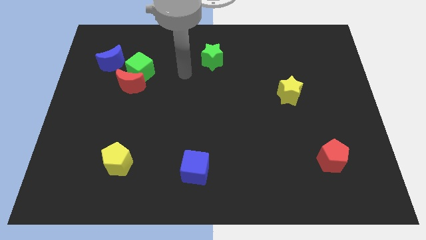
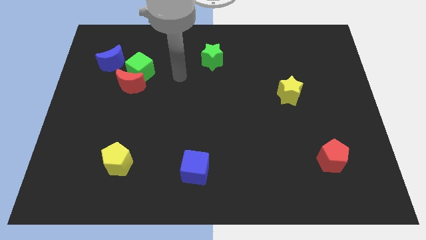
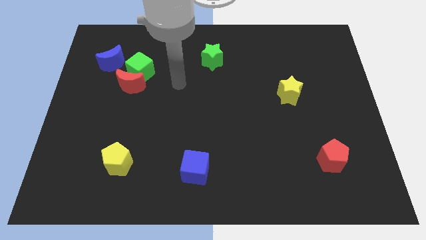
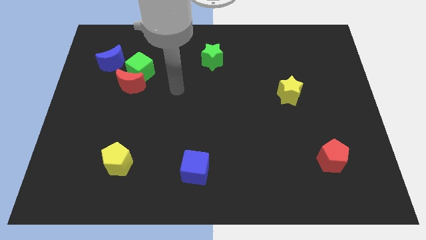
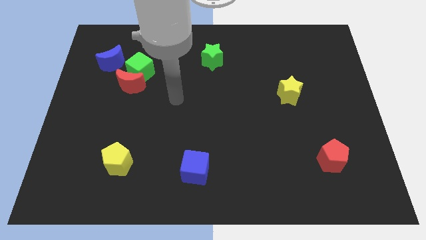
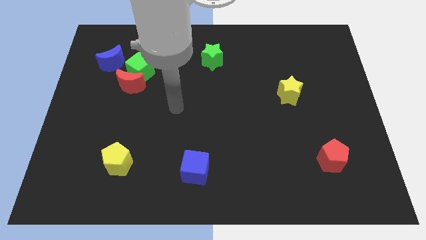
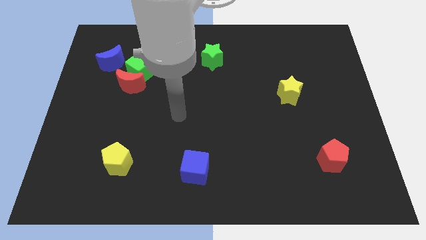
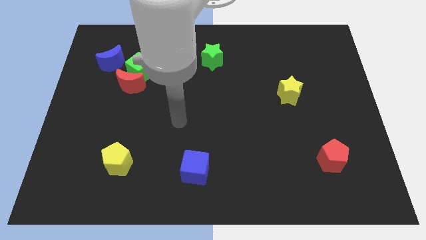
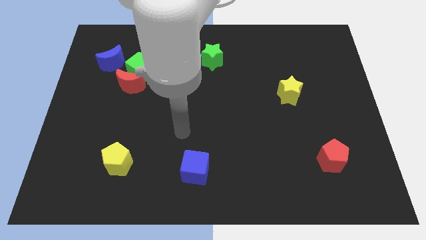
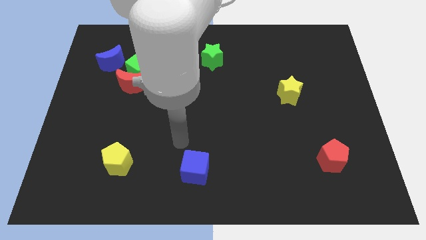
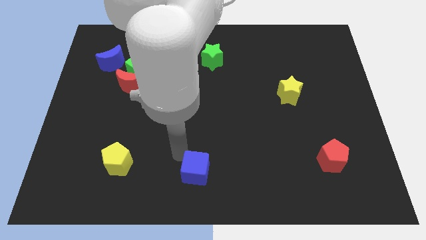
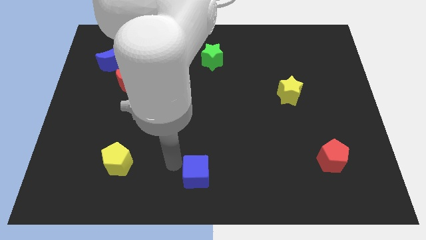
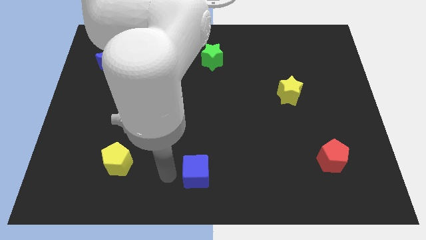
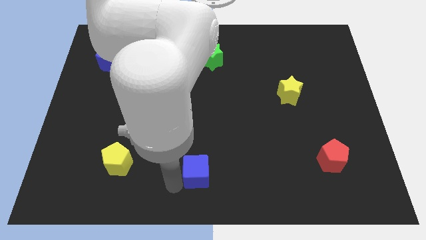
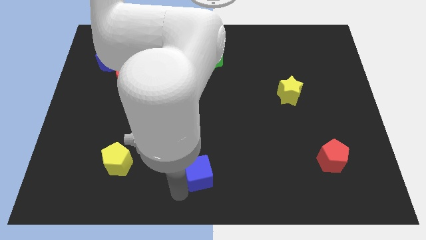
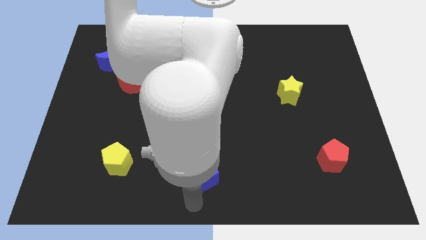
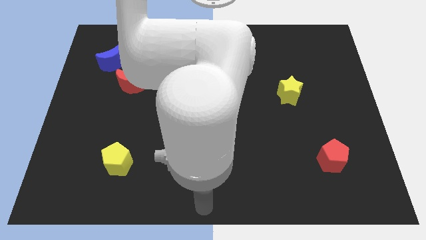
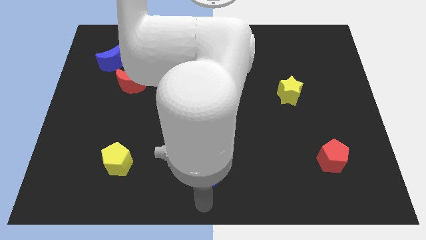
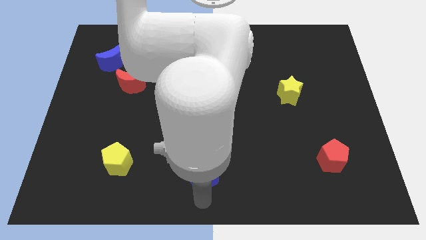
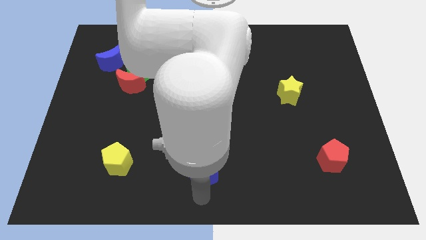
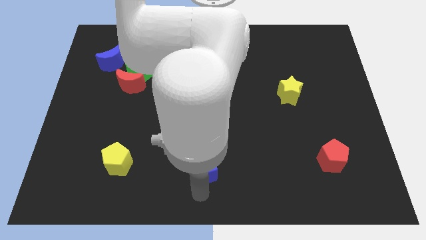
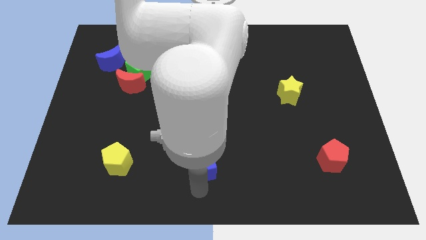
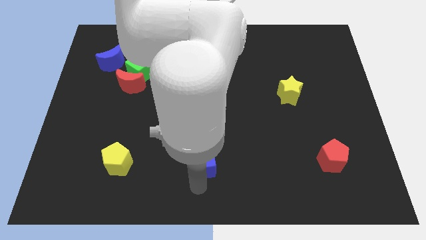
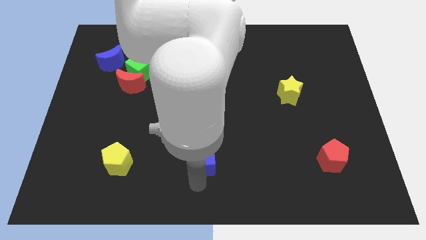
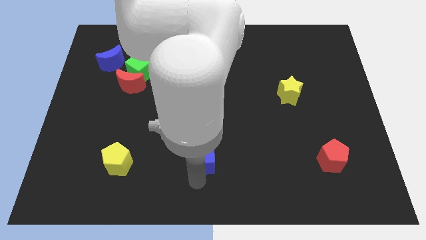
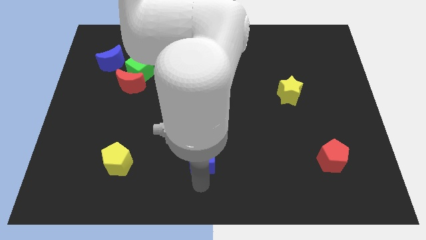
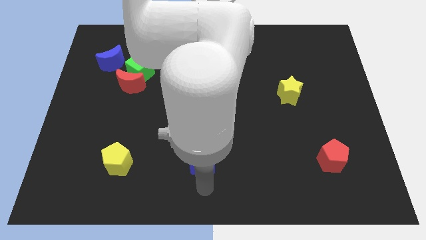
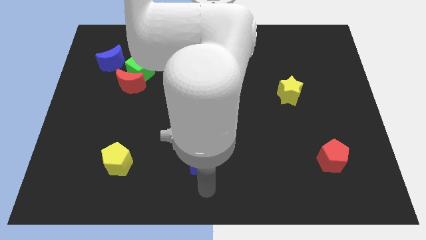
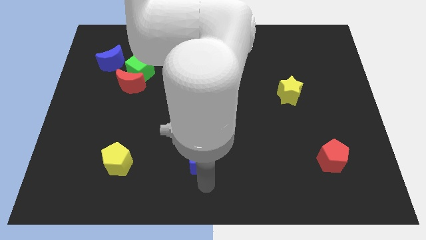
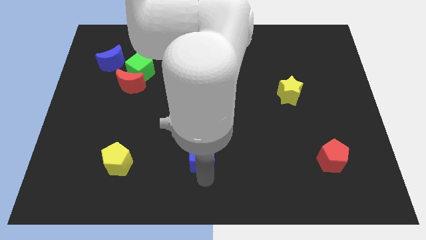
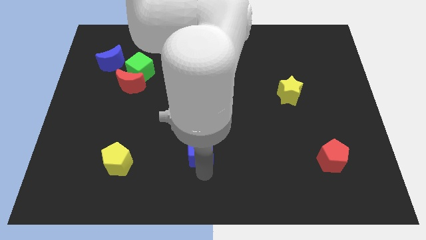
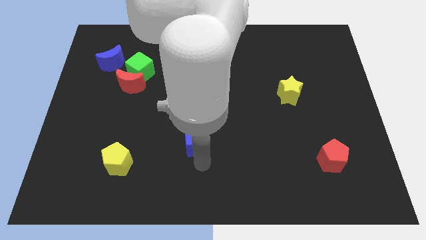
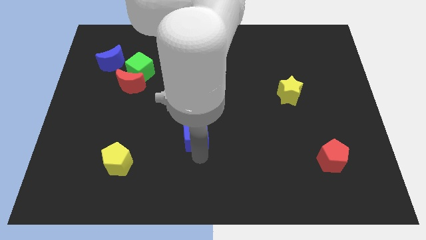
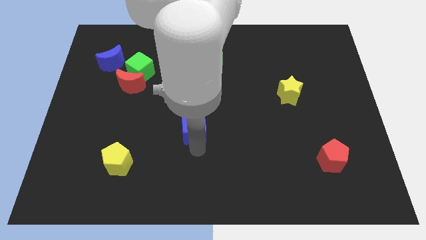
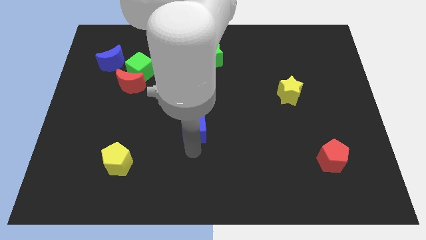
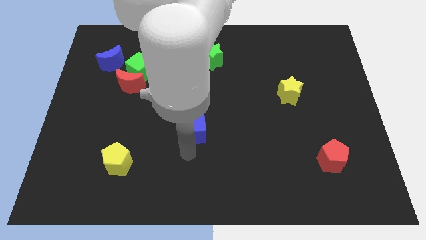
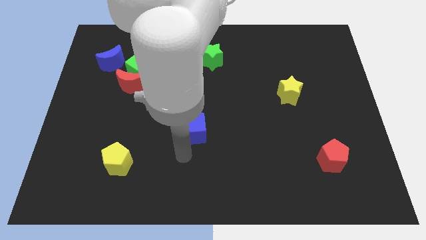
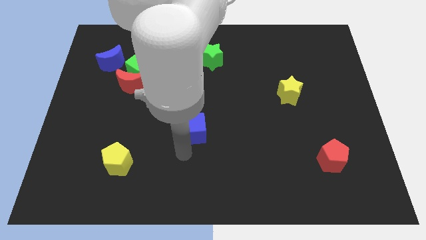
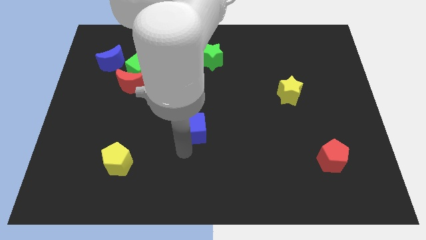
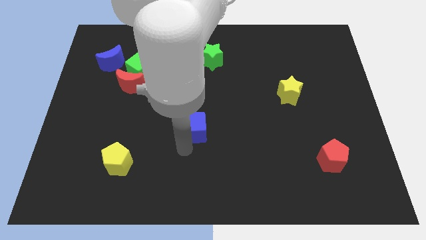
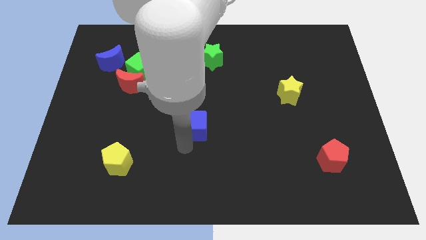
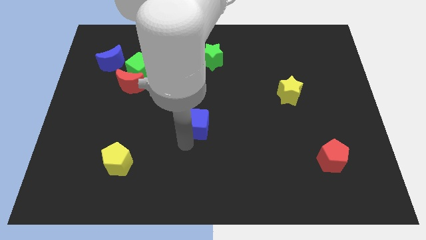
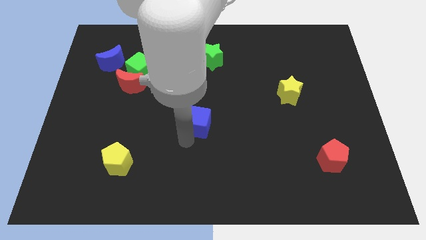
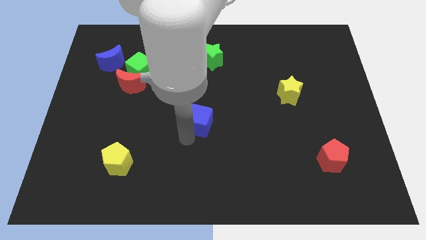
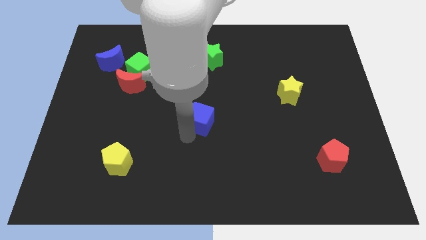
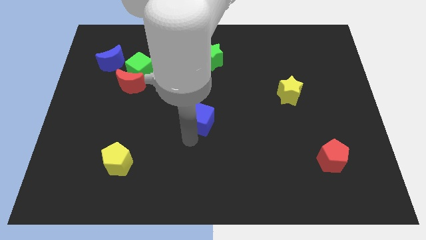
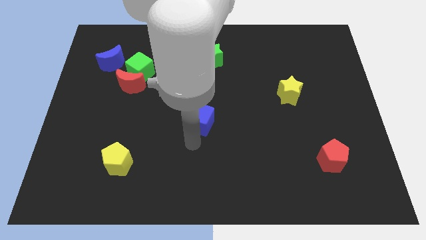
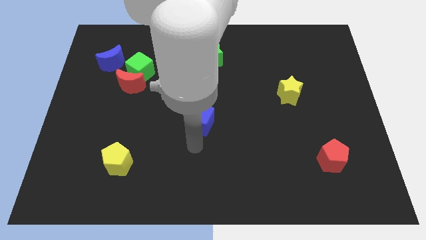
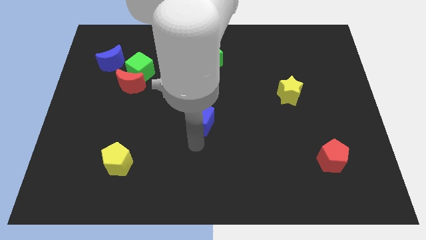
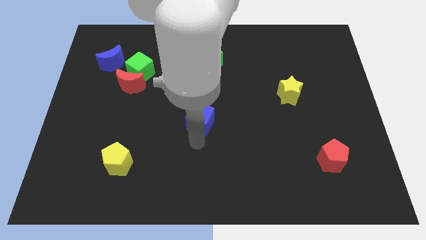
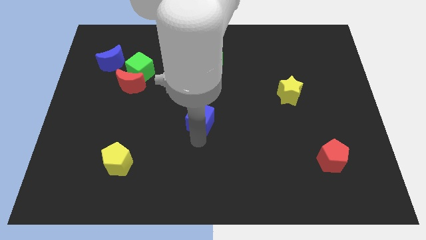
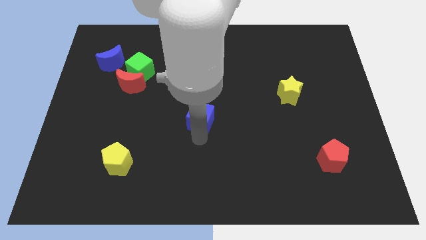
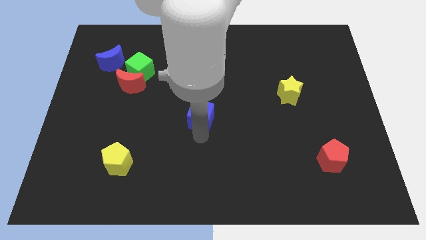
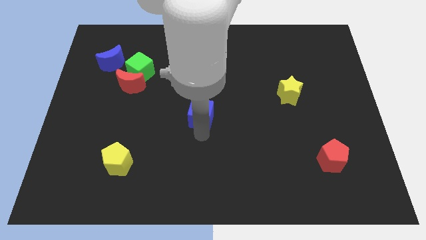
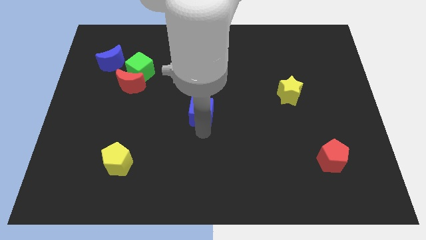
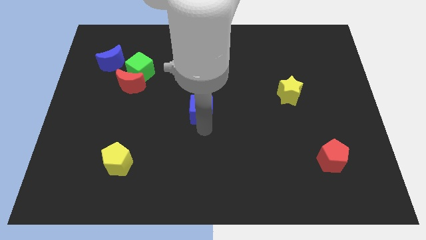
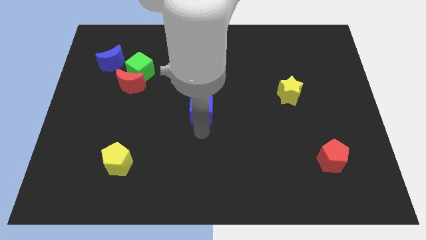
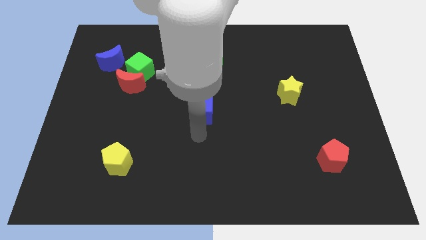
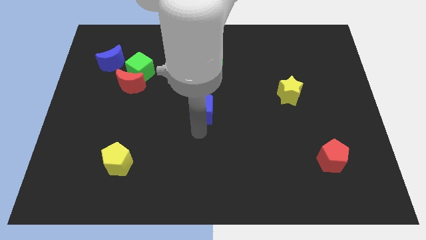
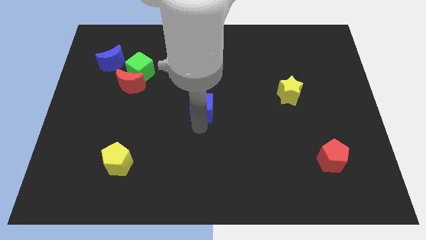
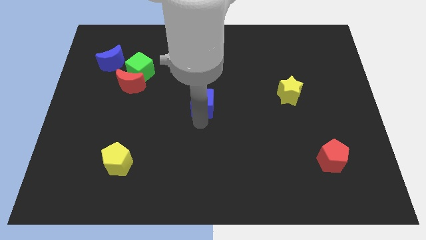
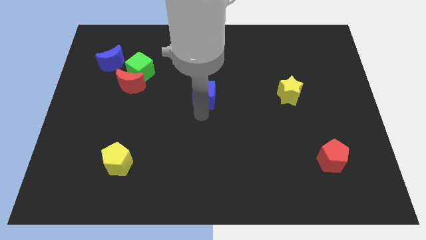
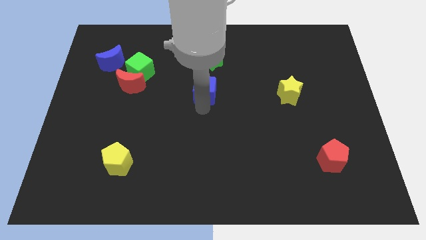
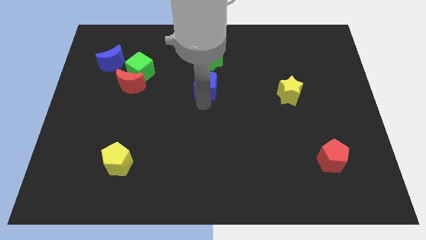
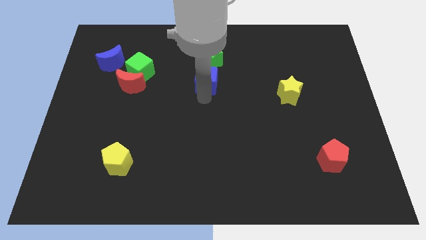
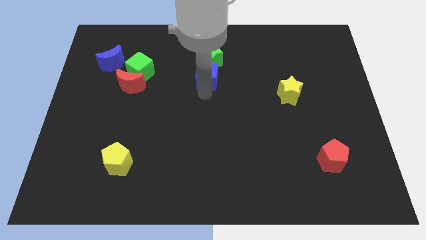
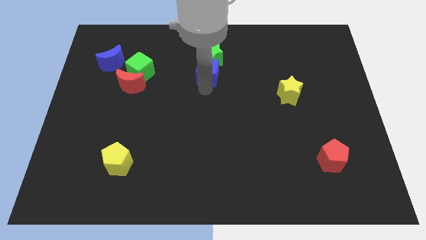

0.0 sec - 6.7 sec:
move the blue cube close to the green star
